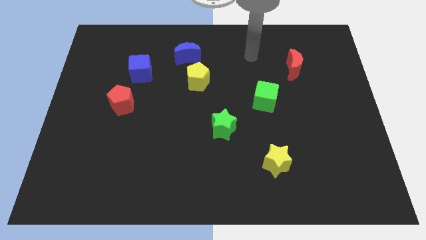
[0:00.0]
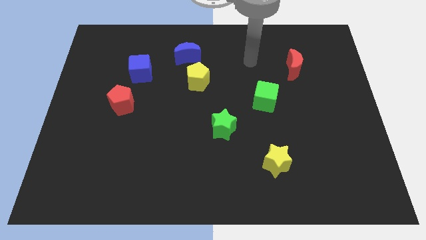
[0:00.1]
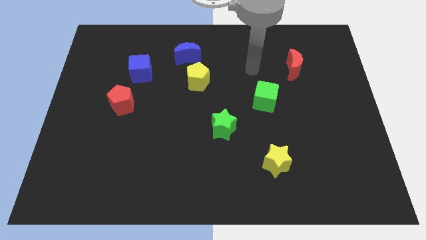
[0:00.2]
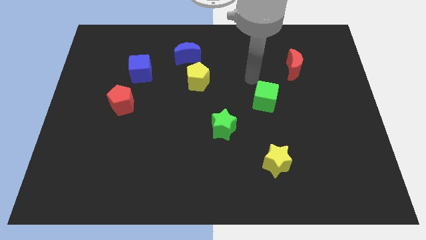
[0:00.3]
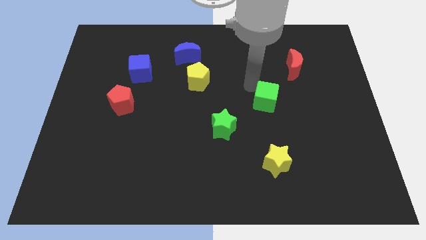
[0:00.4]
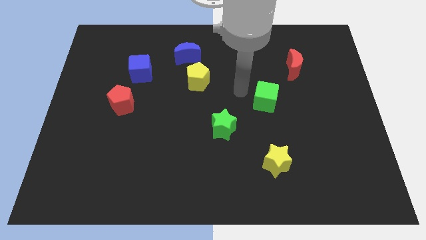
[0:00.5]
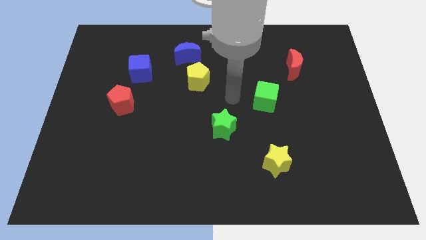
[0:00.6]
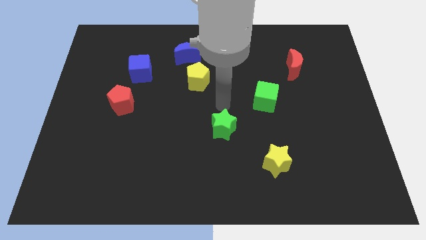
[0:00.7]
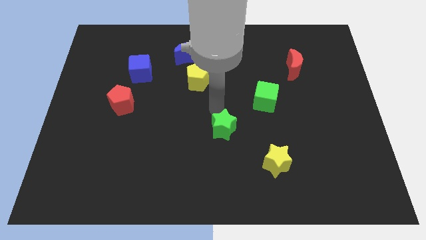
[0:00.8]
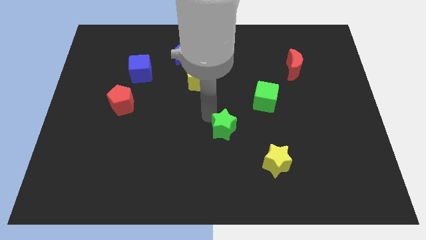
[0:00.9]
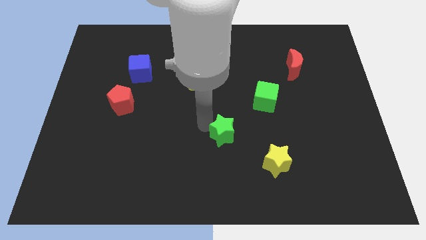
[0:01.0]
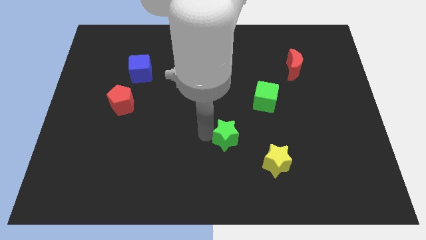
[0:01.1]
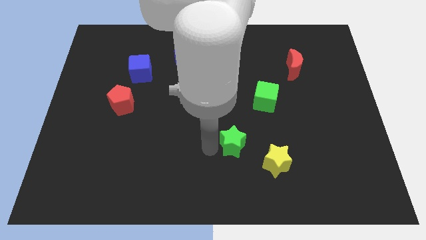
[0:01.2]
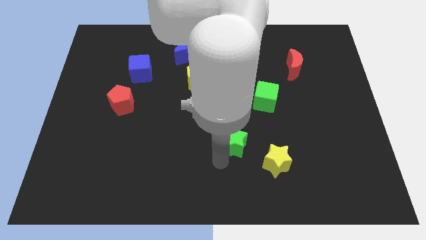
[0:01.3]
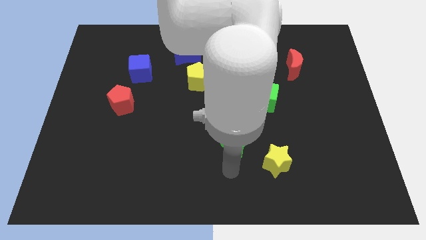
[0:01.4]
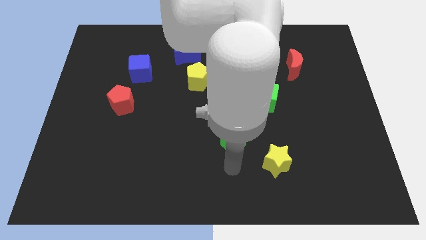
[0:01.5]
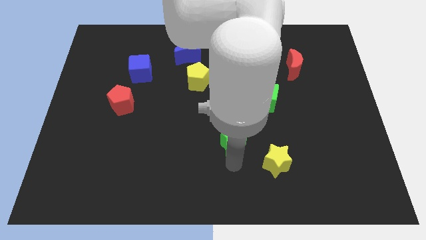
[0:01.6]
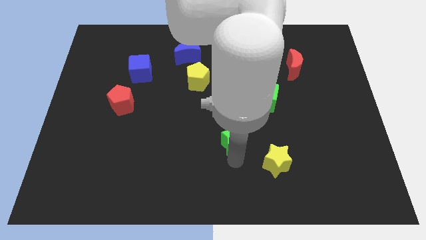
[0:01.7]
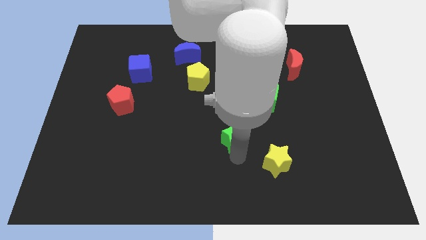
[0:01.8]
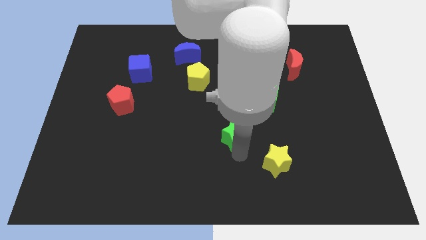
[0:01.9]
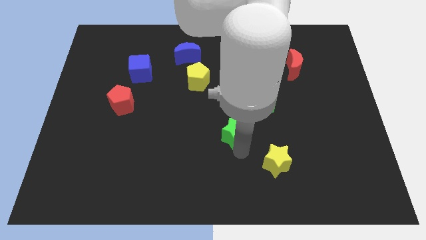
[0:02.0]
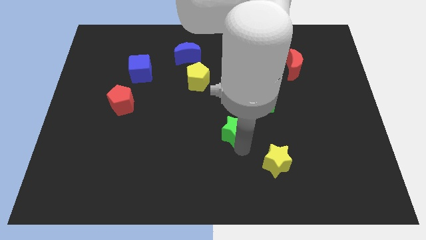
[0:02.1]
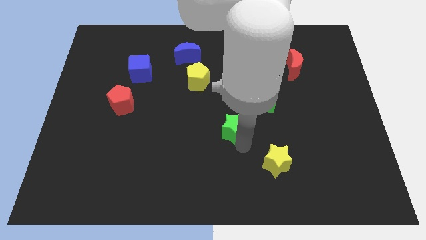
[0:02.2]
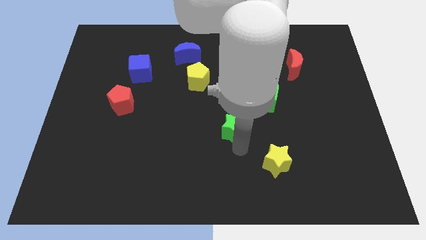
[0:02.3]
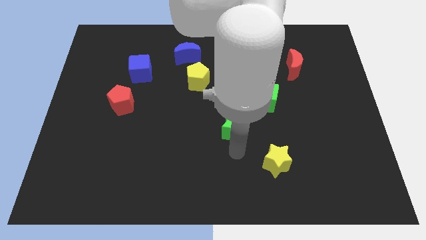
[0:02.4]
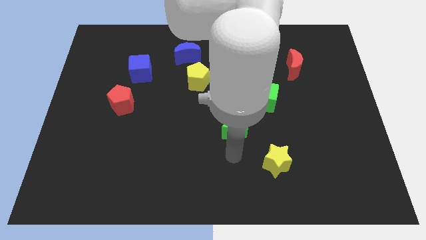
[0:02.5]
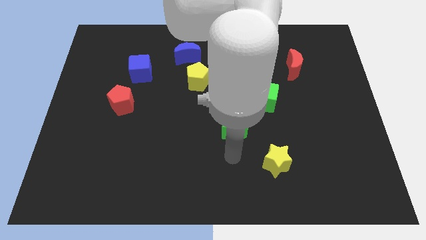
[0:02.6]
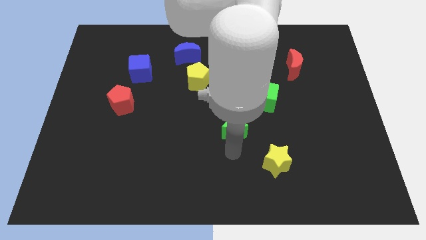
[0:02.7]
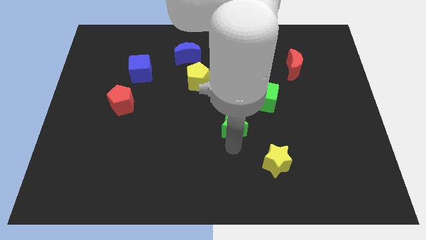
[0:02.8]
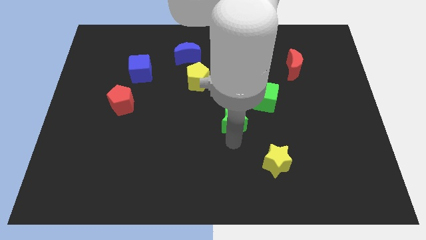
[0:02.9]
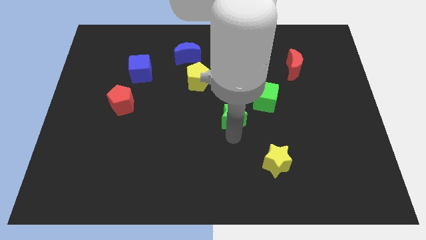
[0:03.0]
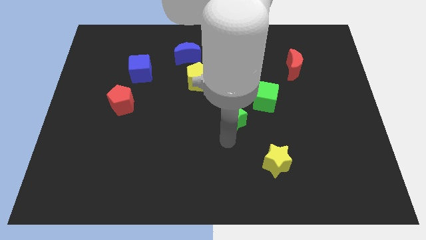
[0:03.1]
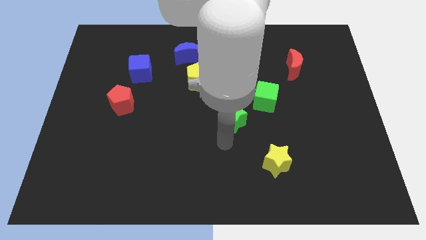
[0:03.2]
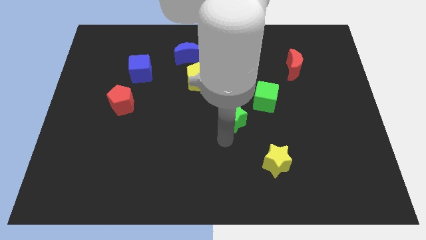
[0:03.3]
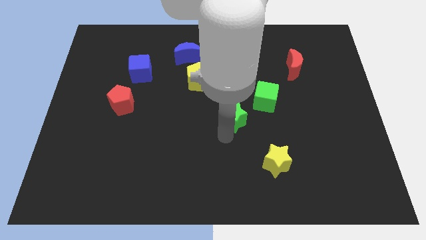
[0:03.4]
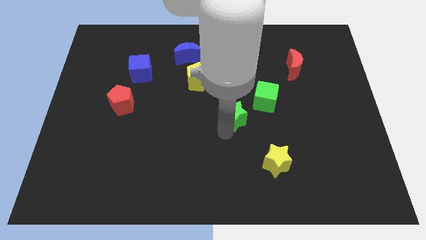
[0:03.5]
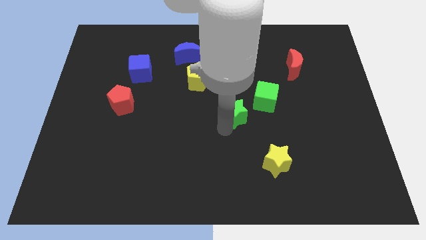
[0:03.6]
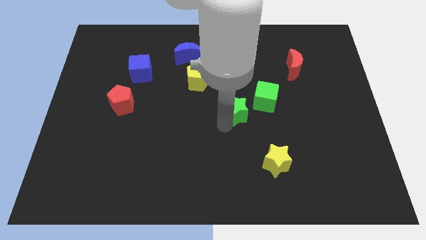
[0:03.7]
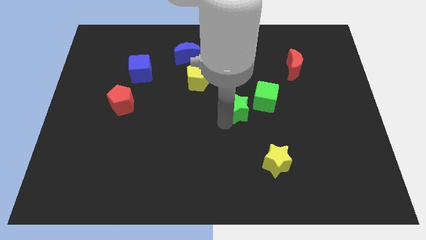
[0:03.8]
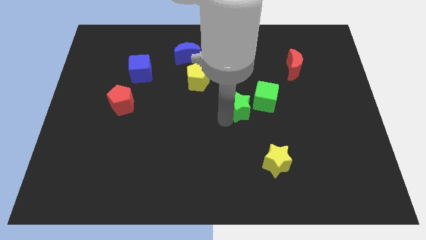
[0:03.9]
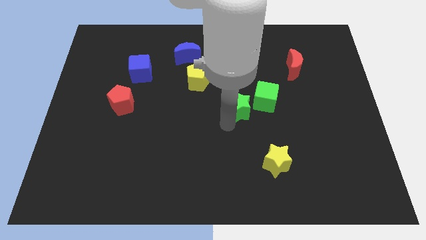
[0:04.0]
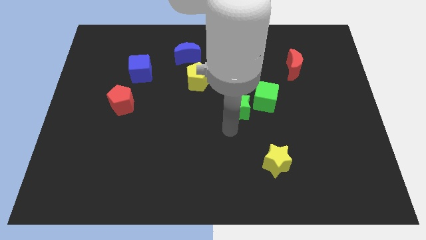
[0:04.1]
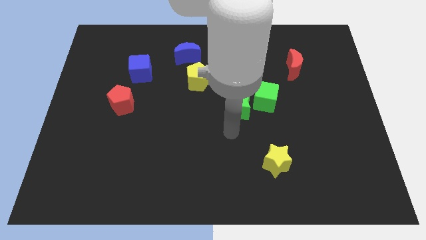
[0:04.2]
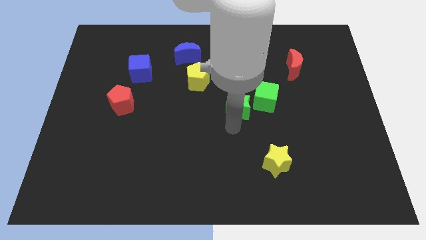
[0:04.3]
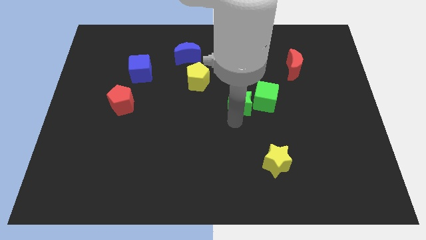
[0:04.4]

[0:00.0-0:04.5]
slightly push the green star diagonally up and to the right

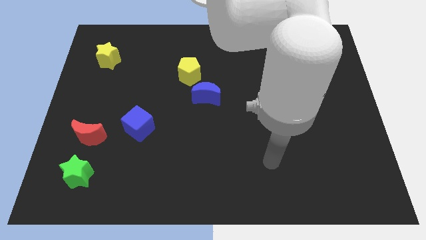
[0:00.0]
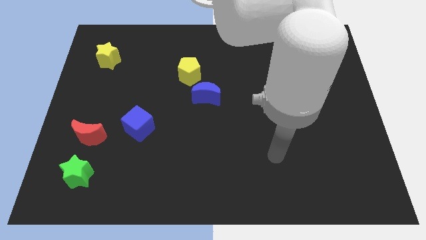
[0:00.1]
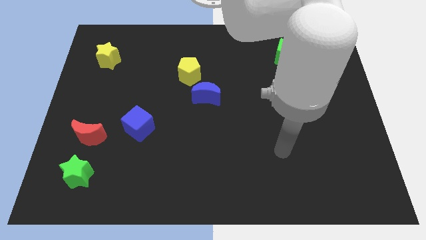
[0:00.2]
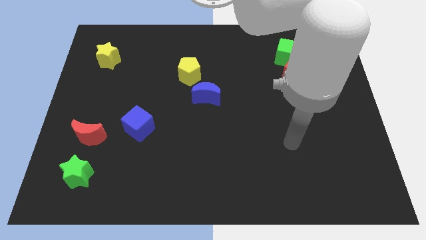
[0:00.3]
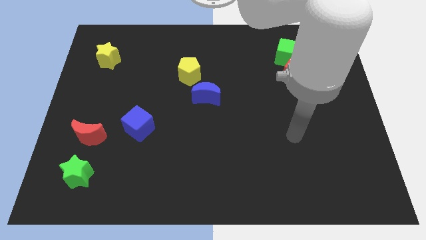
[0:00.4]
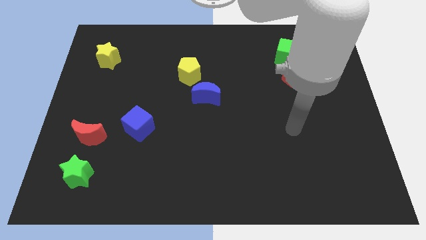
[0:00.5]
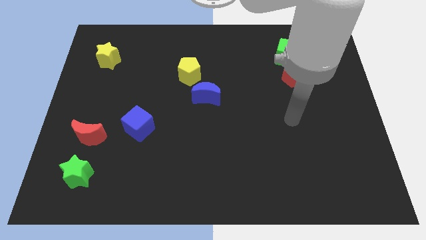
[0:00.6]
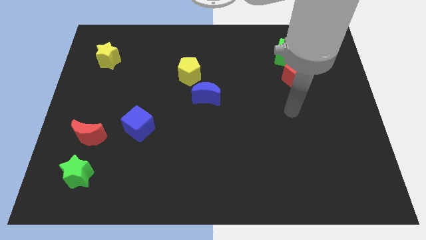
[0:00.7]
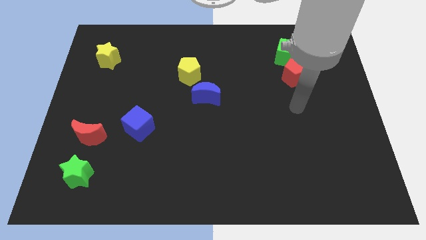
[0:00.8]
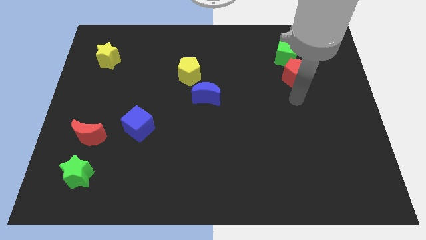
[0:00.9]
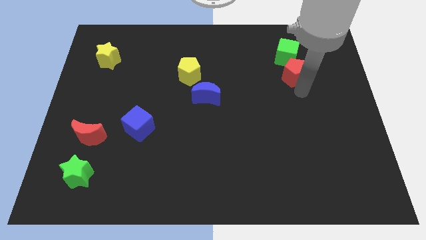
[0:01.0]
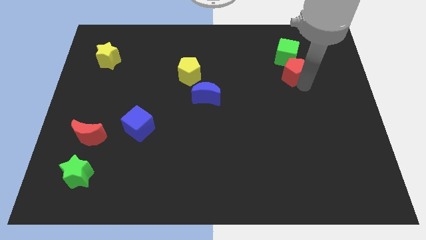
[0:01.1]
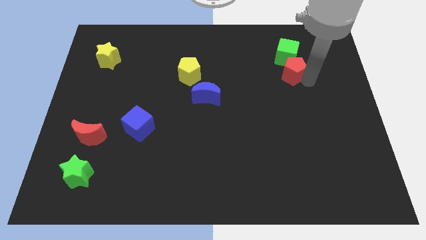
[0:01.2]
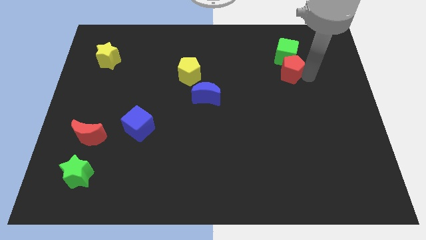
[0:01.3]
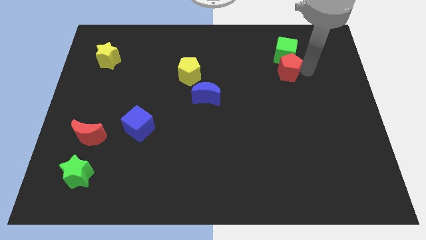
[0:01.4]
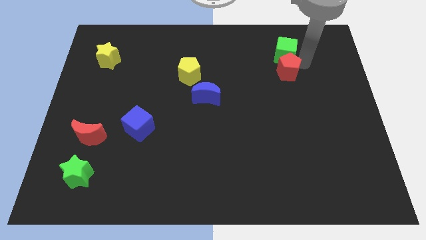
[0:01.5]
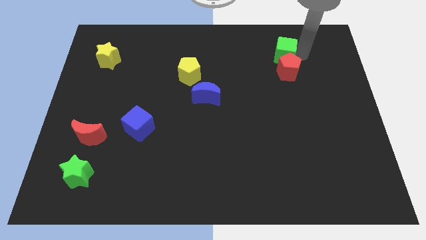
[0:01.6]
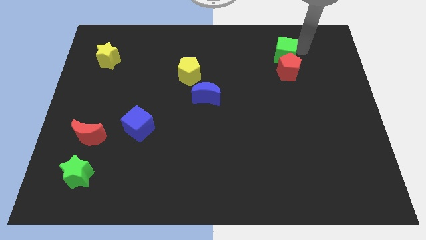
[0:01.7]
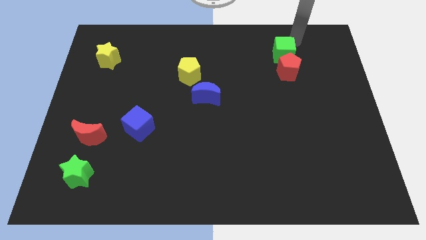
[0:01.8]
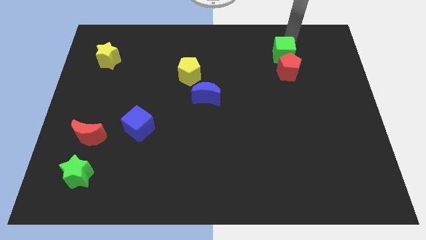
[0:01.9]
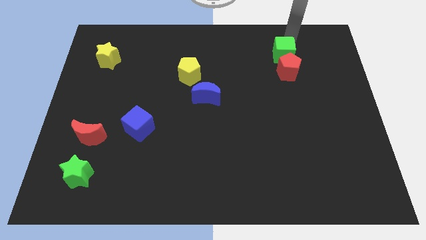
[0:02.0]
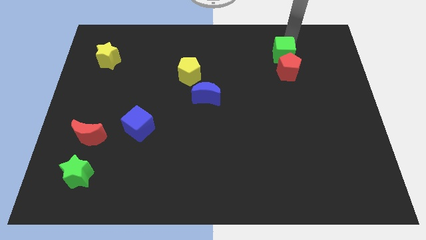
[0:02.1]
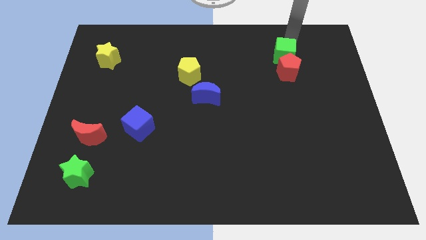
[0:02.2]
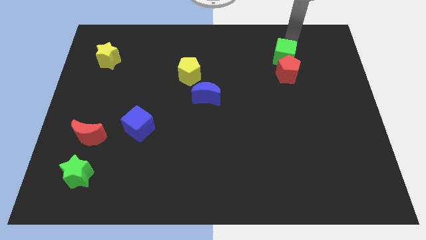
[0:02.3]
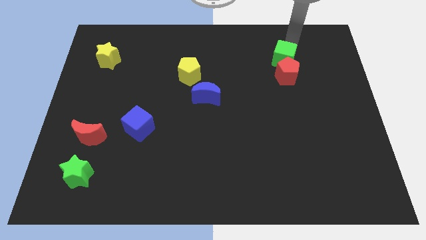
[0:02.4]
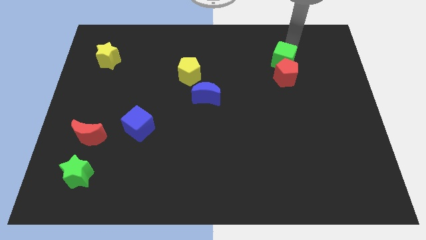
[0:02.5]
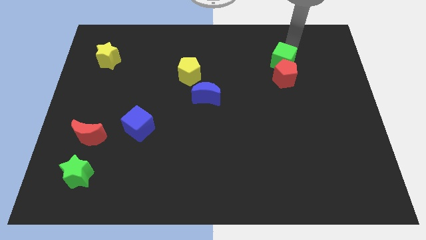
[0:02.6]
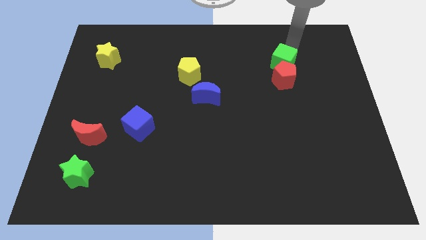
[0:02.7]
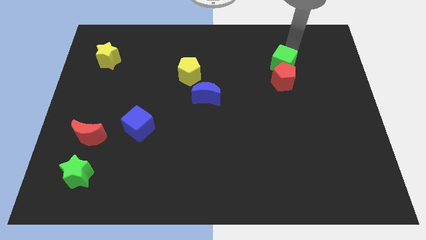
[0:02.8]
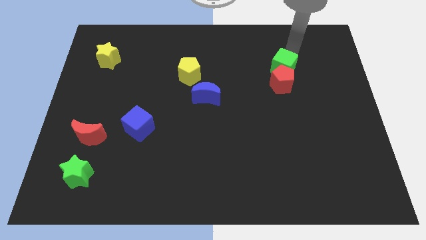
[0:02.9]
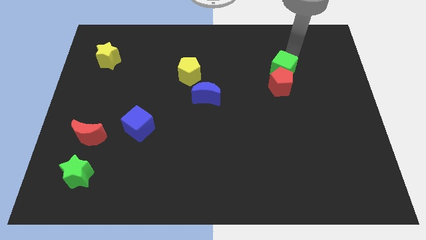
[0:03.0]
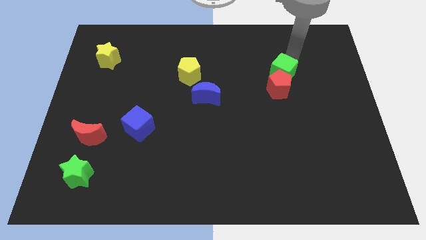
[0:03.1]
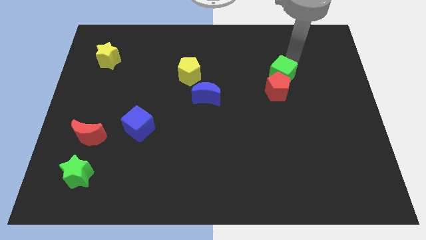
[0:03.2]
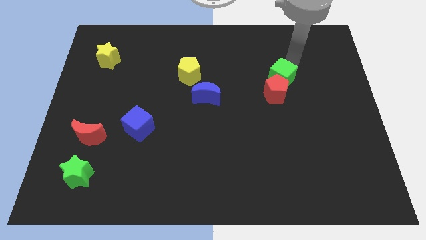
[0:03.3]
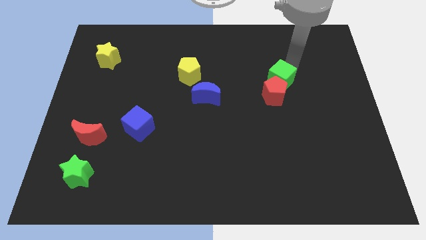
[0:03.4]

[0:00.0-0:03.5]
slide the green cube downwards and then to the left a little

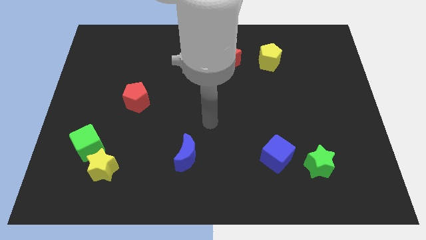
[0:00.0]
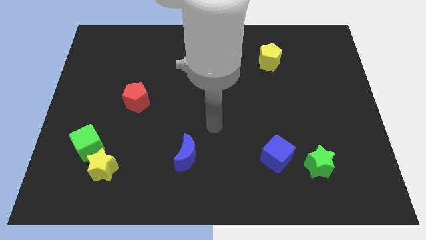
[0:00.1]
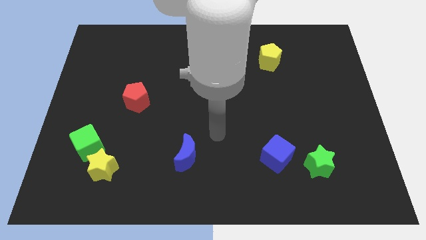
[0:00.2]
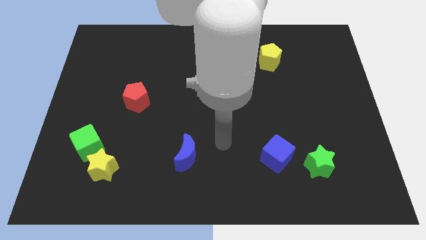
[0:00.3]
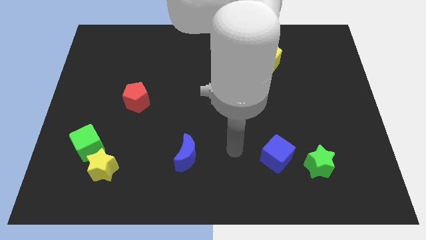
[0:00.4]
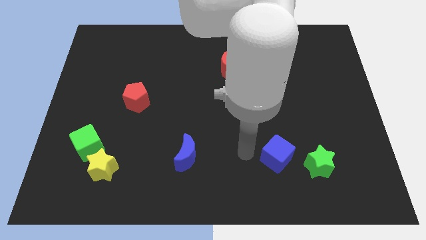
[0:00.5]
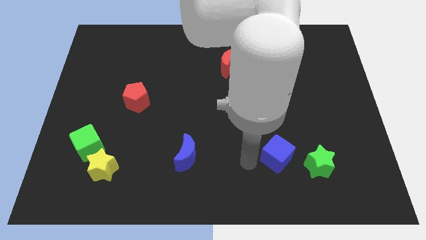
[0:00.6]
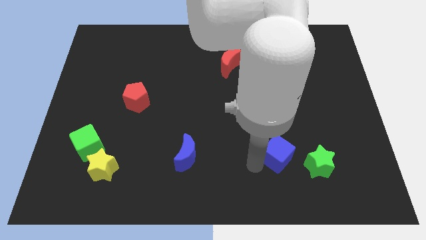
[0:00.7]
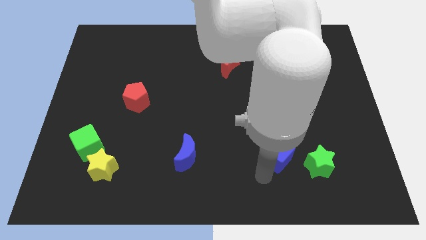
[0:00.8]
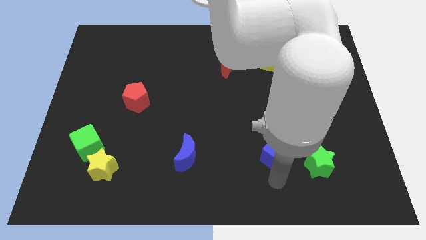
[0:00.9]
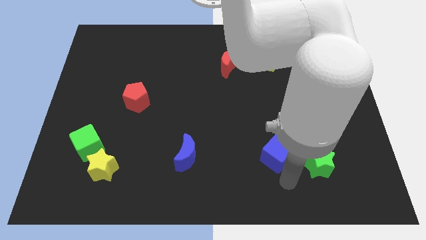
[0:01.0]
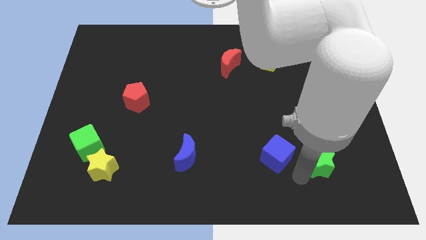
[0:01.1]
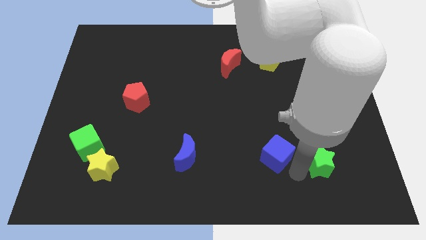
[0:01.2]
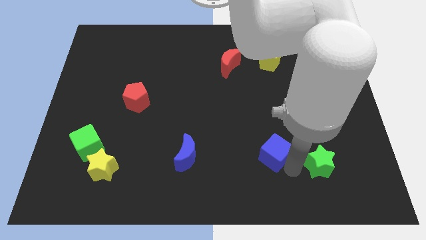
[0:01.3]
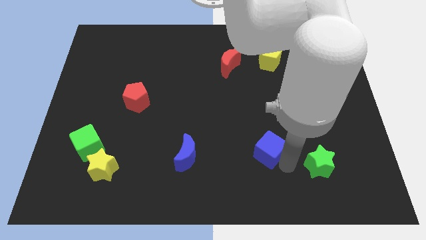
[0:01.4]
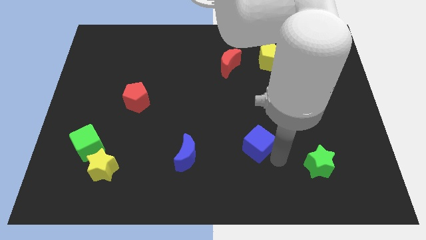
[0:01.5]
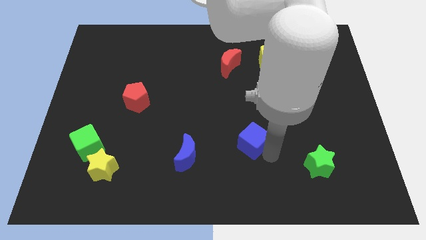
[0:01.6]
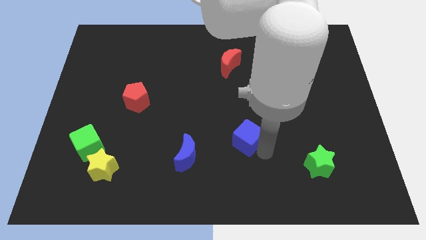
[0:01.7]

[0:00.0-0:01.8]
move the blue cube a bit up and left diagonally
